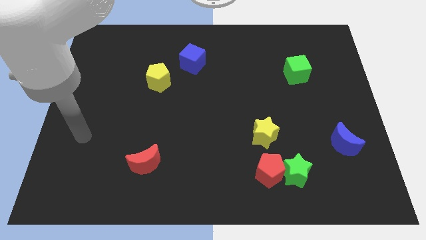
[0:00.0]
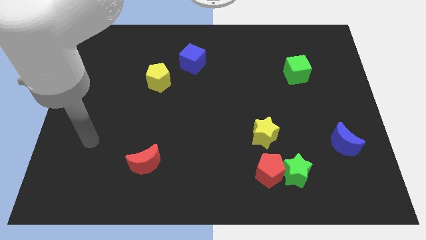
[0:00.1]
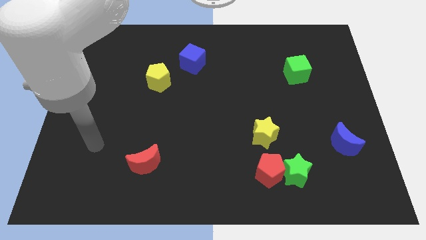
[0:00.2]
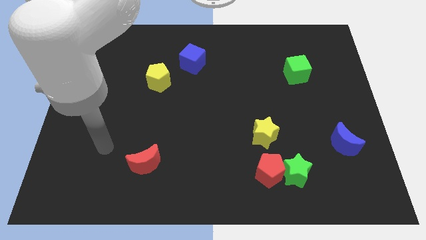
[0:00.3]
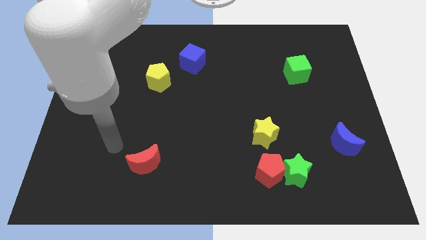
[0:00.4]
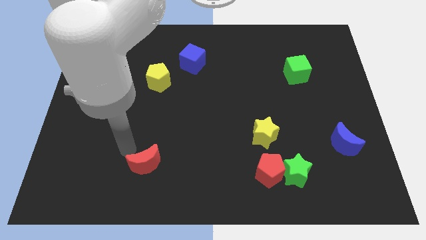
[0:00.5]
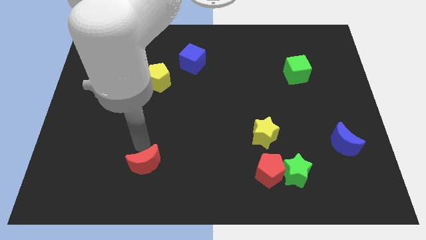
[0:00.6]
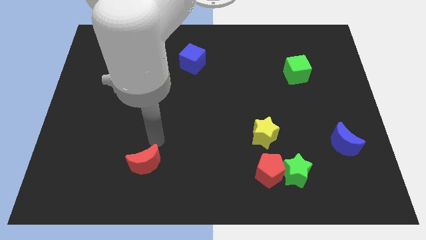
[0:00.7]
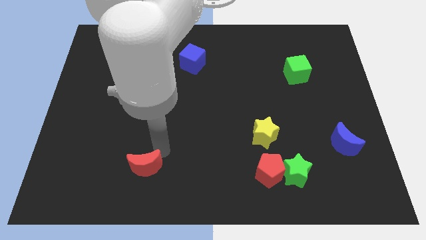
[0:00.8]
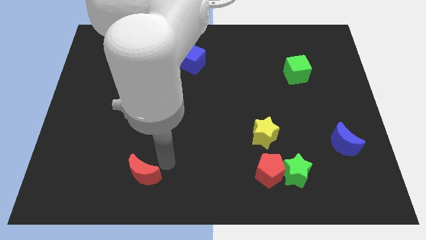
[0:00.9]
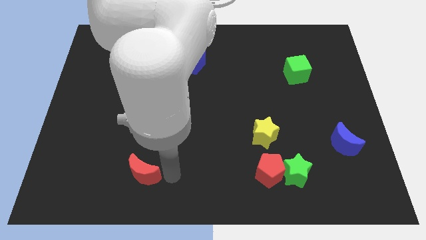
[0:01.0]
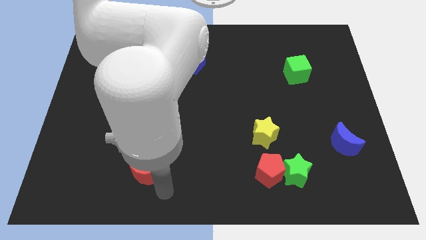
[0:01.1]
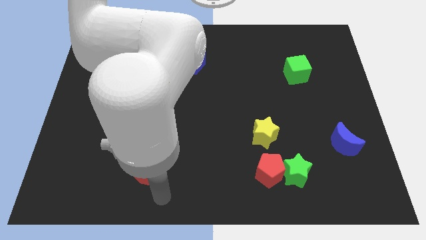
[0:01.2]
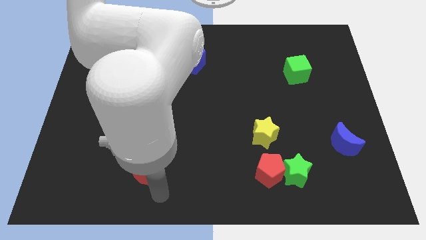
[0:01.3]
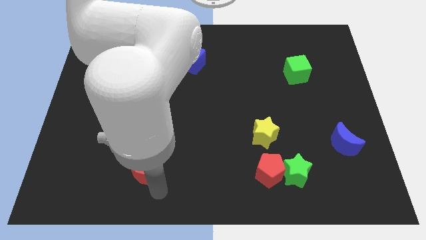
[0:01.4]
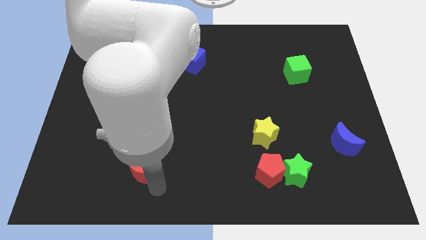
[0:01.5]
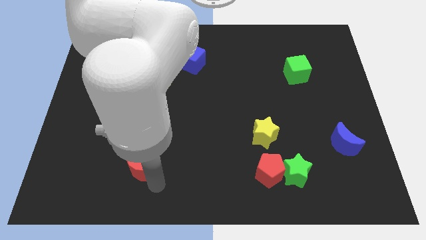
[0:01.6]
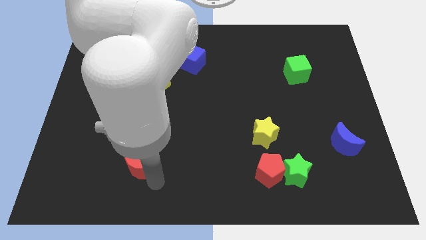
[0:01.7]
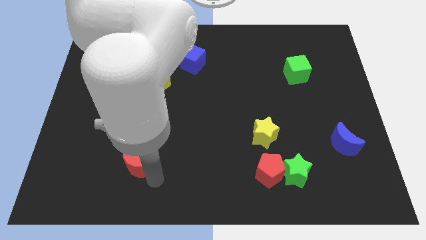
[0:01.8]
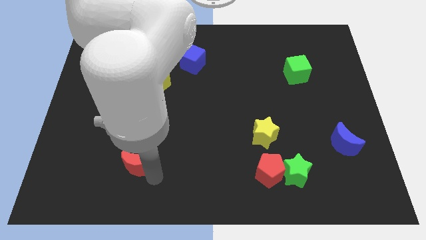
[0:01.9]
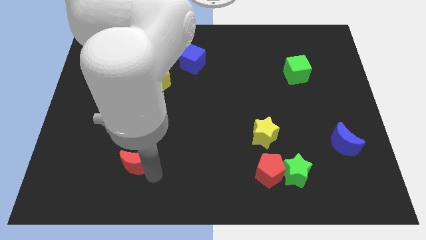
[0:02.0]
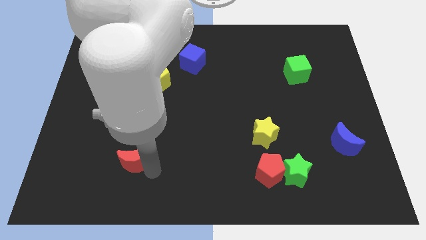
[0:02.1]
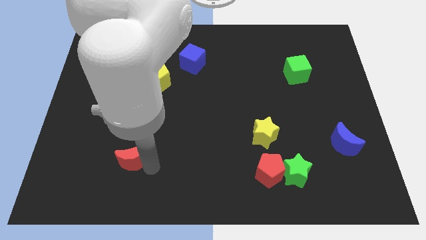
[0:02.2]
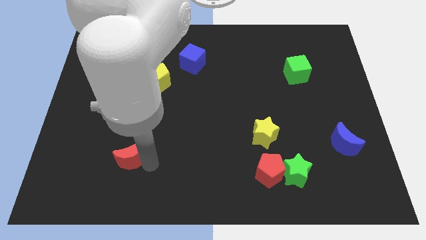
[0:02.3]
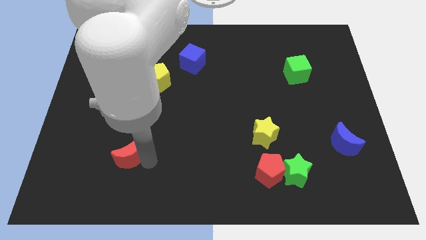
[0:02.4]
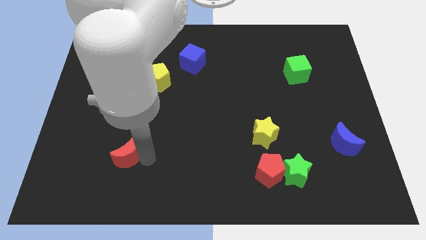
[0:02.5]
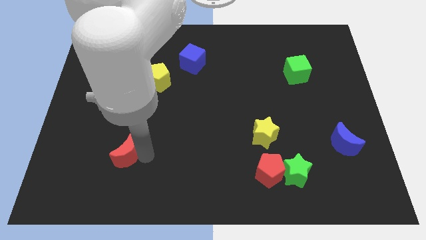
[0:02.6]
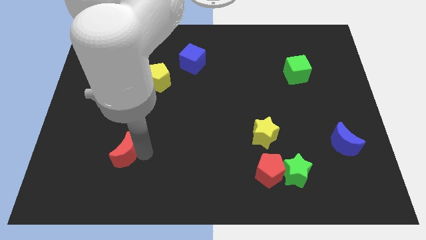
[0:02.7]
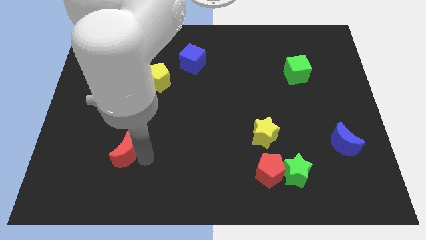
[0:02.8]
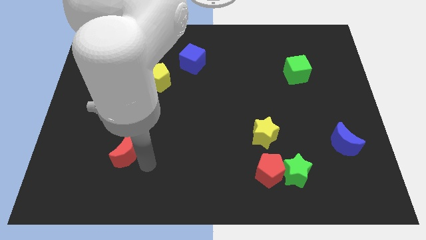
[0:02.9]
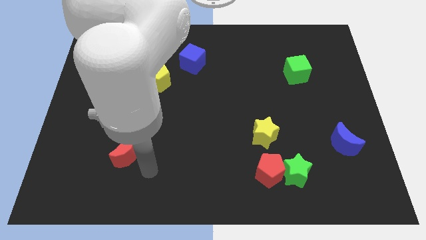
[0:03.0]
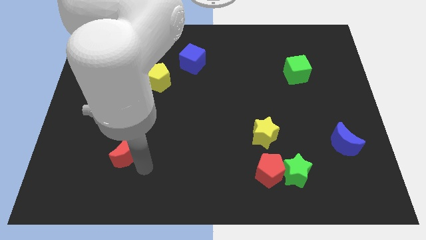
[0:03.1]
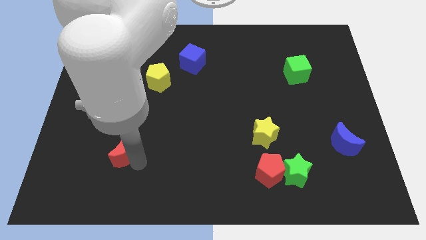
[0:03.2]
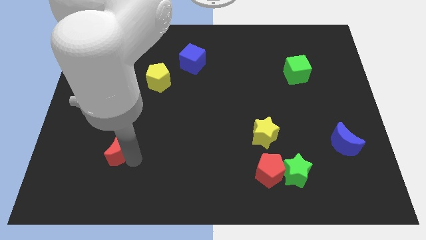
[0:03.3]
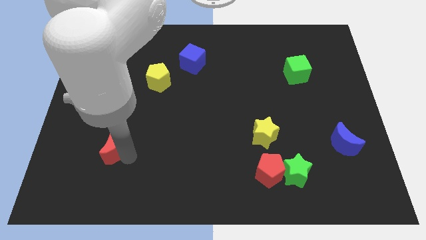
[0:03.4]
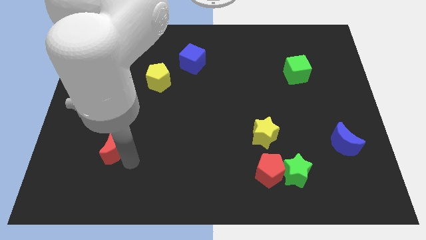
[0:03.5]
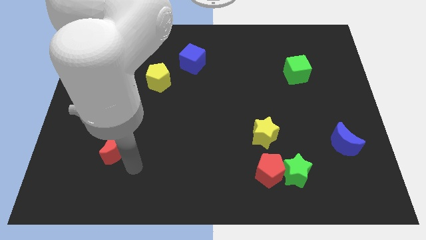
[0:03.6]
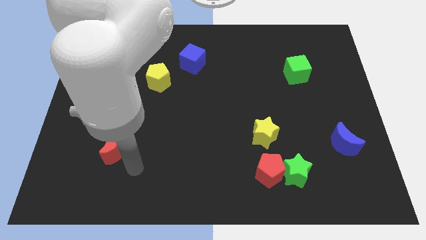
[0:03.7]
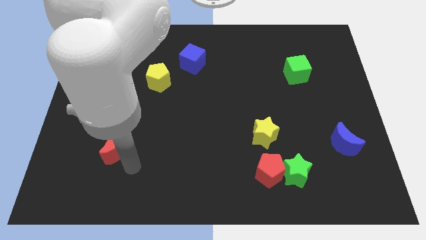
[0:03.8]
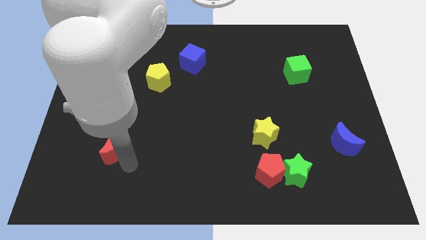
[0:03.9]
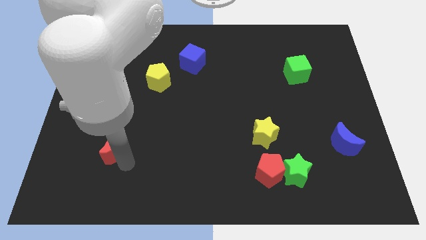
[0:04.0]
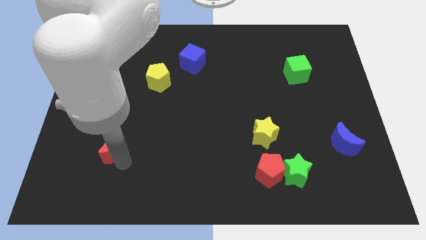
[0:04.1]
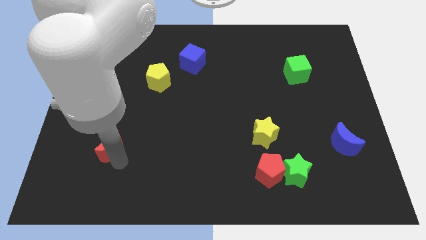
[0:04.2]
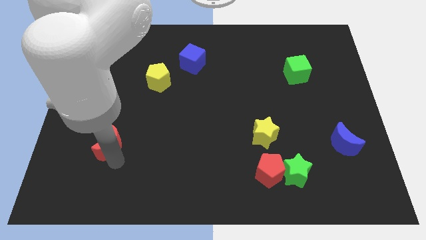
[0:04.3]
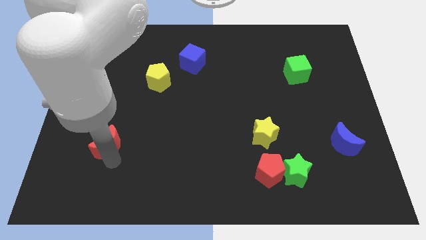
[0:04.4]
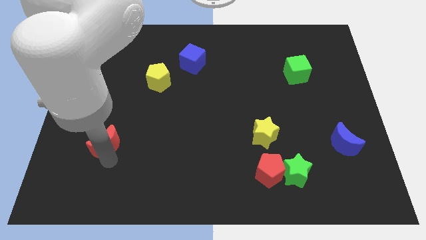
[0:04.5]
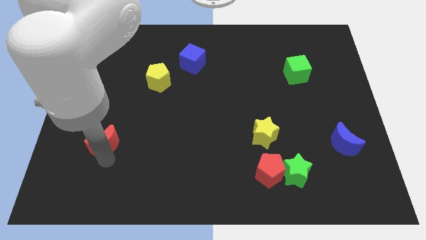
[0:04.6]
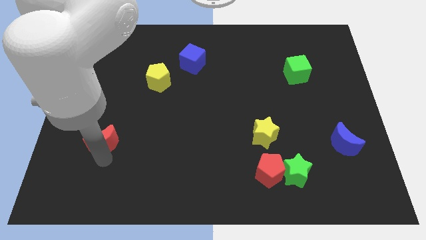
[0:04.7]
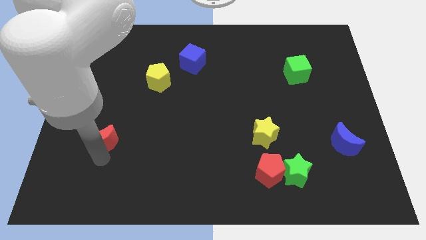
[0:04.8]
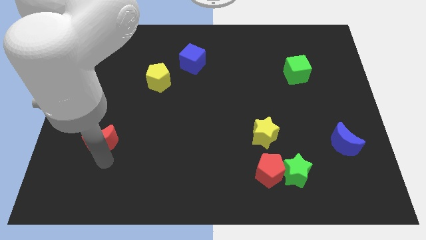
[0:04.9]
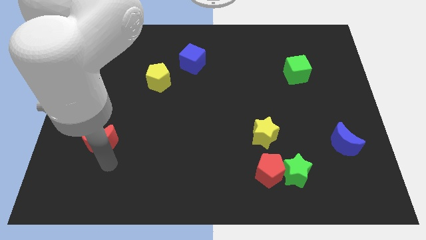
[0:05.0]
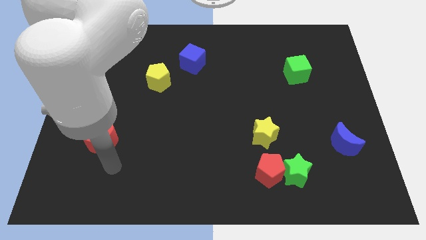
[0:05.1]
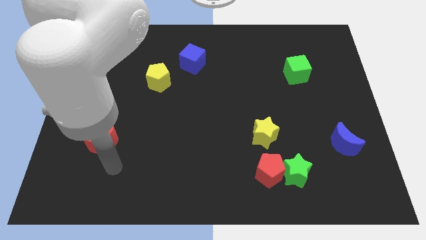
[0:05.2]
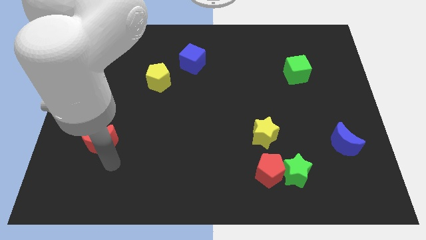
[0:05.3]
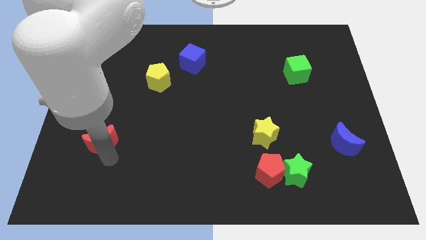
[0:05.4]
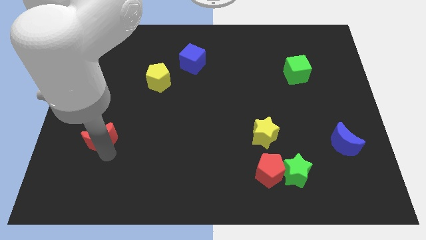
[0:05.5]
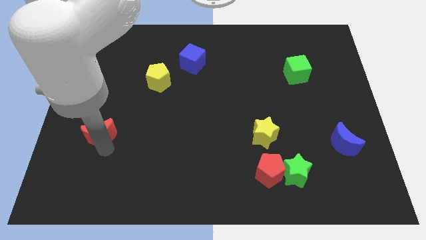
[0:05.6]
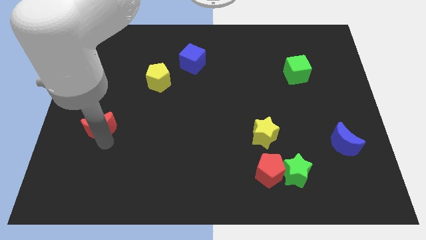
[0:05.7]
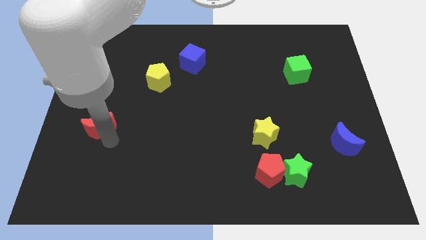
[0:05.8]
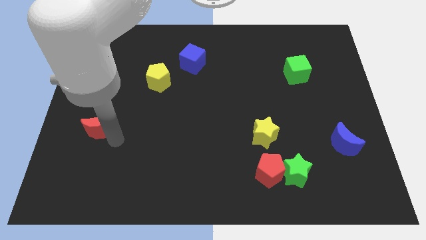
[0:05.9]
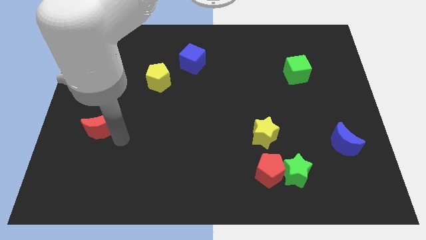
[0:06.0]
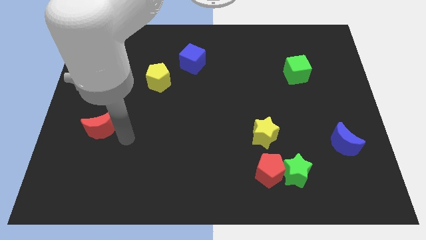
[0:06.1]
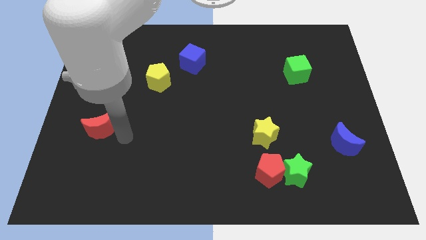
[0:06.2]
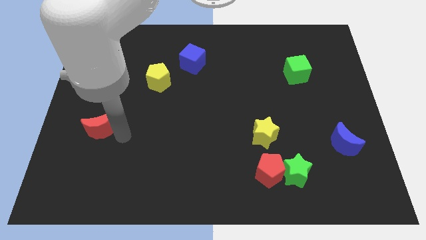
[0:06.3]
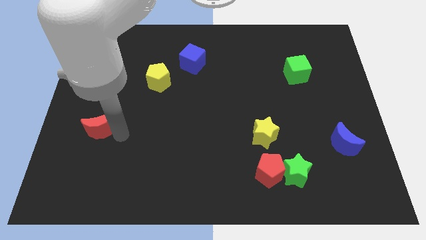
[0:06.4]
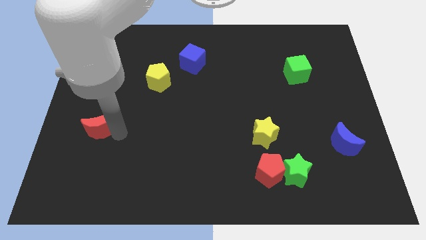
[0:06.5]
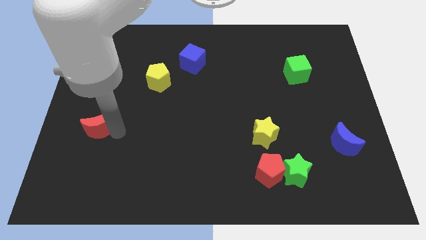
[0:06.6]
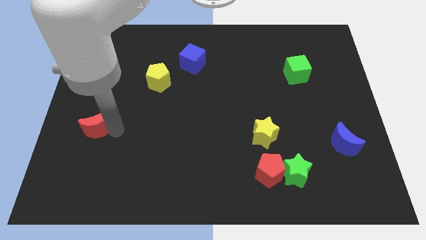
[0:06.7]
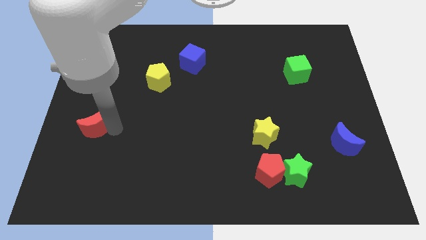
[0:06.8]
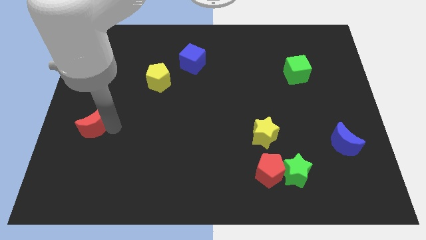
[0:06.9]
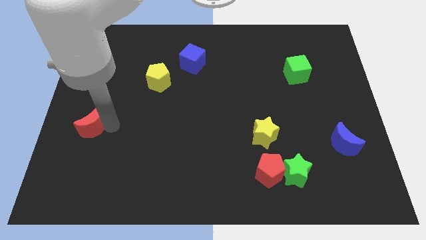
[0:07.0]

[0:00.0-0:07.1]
push the red moon to the left side of the board
